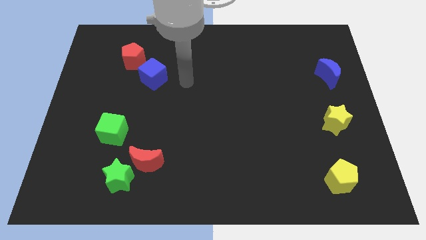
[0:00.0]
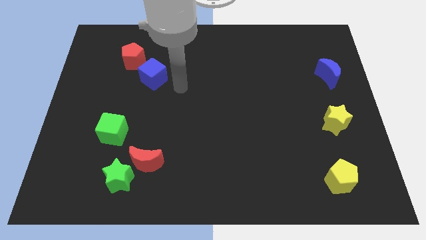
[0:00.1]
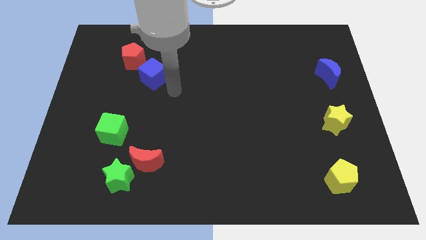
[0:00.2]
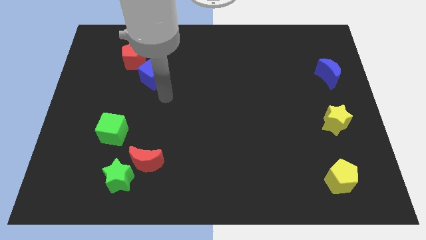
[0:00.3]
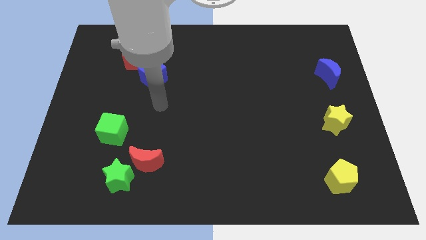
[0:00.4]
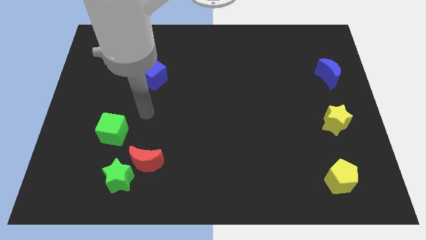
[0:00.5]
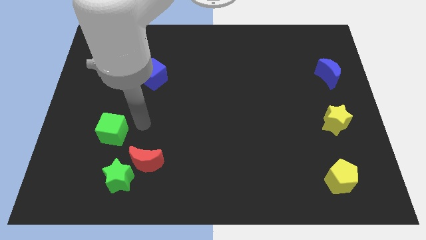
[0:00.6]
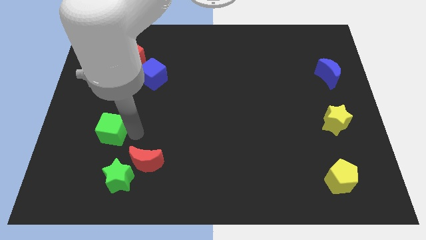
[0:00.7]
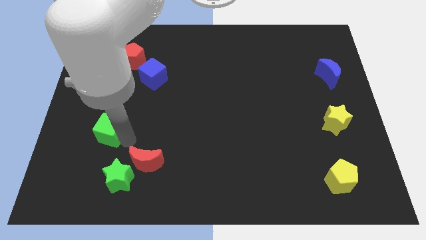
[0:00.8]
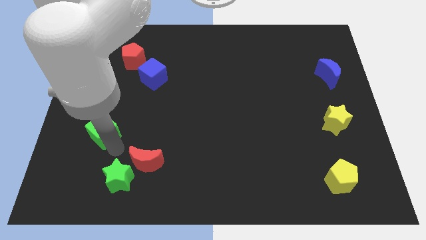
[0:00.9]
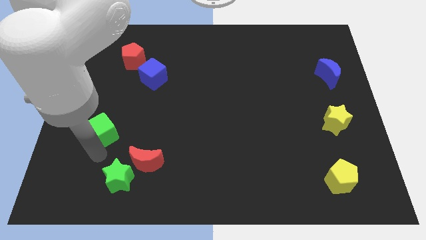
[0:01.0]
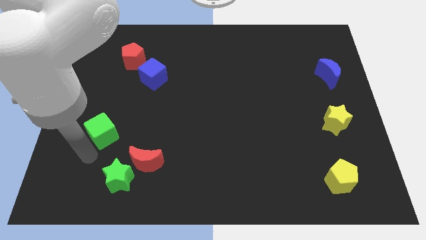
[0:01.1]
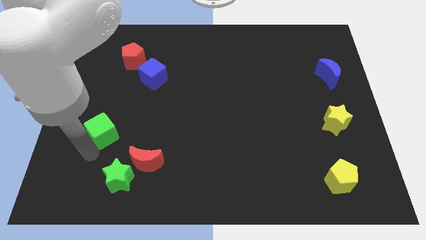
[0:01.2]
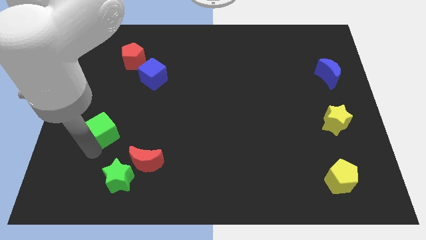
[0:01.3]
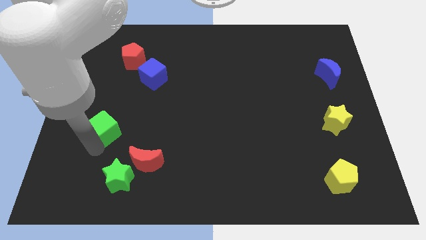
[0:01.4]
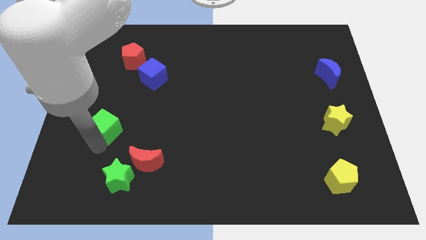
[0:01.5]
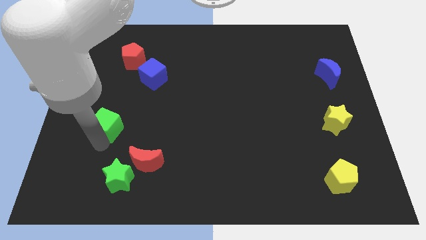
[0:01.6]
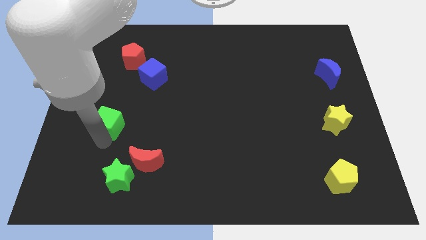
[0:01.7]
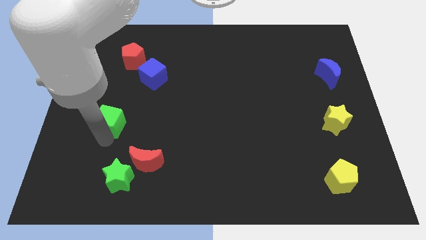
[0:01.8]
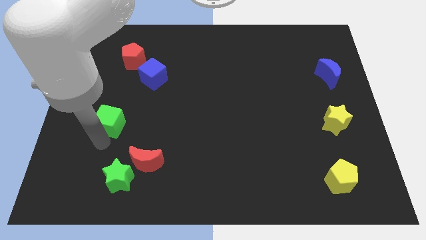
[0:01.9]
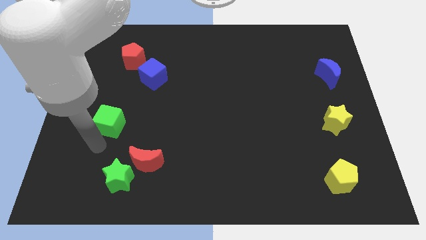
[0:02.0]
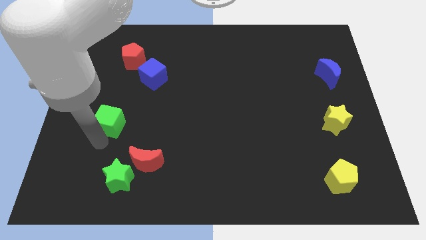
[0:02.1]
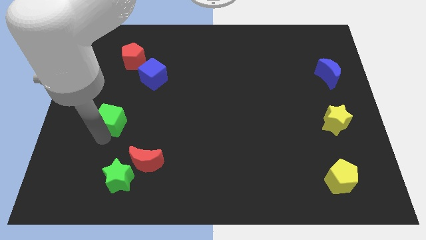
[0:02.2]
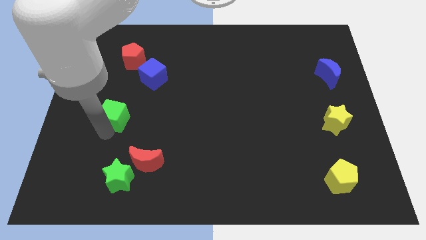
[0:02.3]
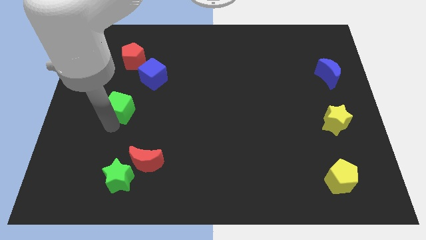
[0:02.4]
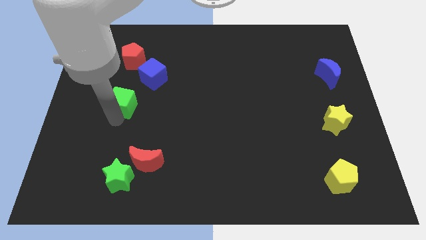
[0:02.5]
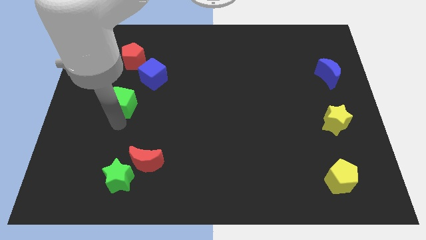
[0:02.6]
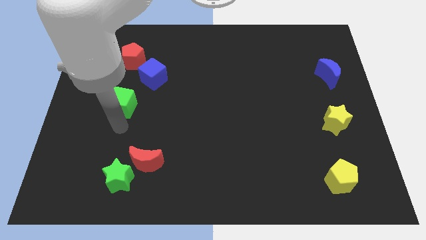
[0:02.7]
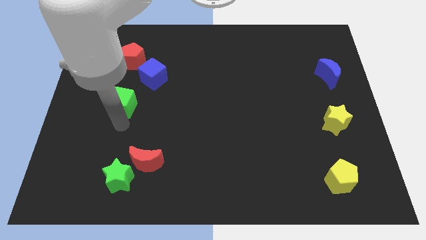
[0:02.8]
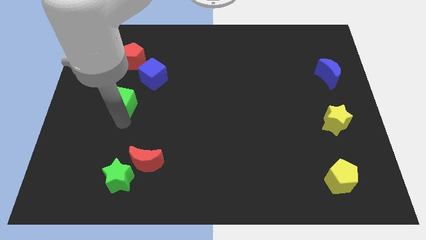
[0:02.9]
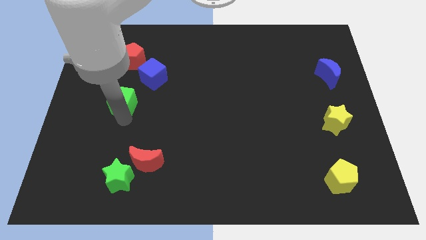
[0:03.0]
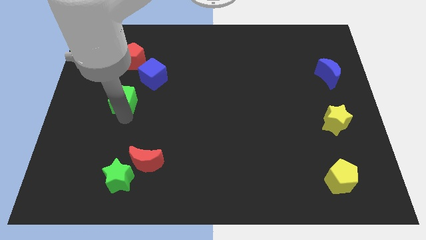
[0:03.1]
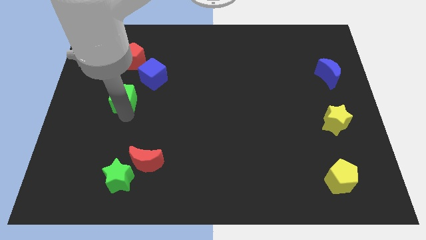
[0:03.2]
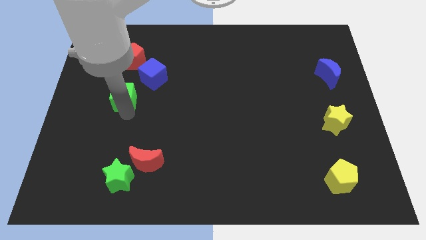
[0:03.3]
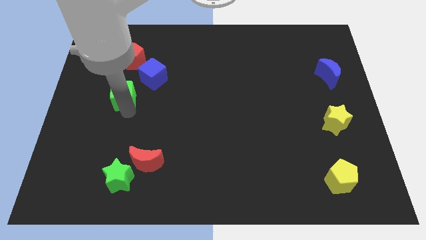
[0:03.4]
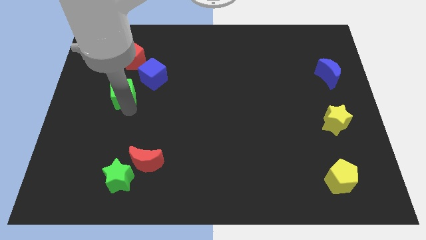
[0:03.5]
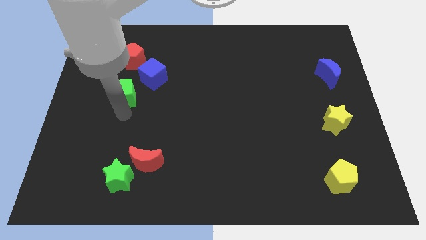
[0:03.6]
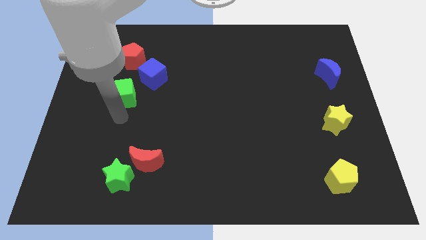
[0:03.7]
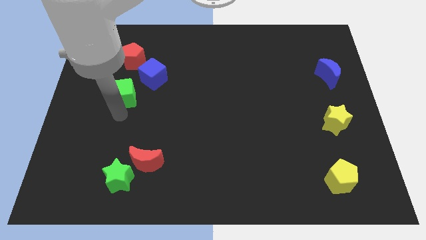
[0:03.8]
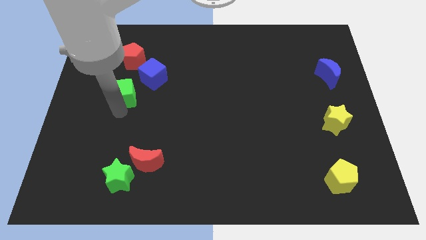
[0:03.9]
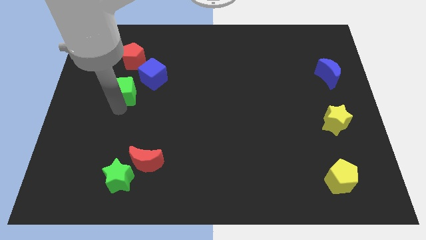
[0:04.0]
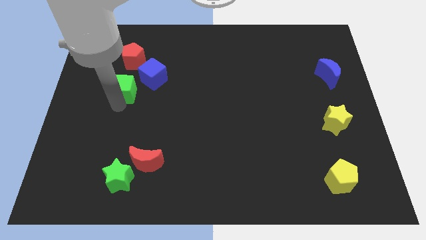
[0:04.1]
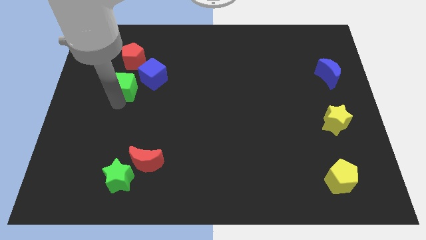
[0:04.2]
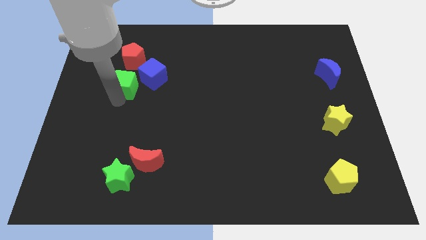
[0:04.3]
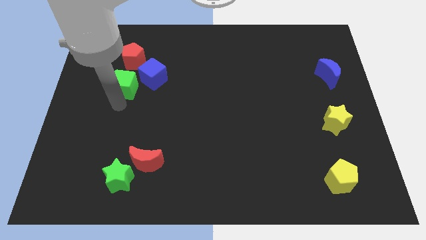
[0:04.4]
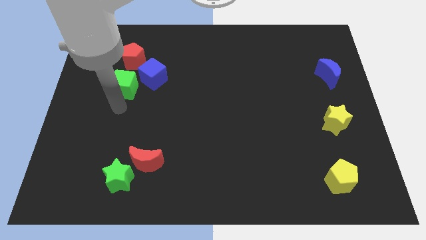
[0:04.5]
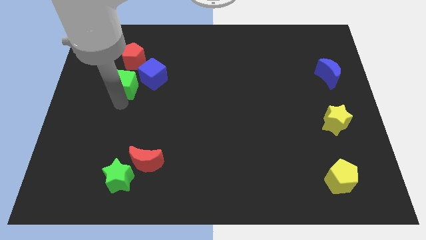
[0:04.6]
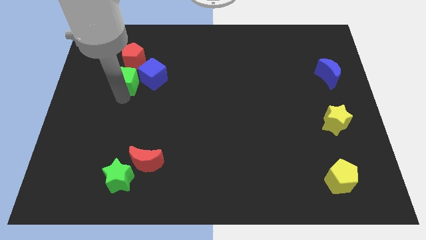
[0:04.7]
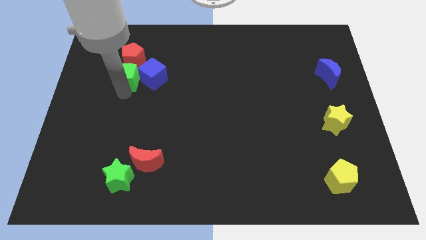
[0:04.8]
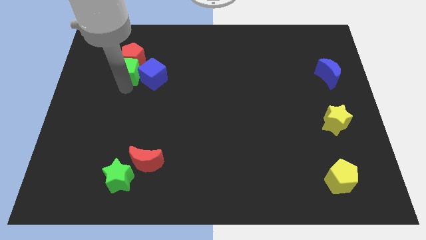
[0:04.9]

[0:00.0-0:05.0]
put the green cube close to the red pentagon

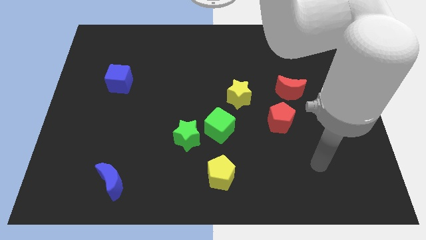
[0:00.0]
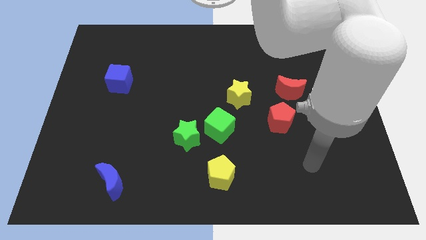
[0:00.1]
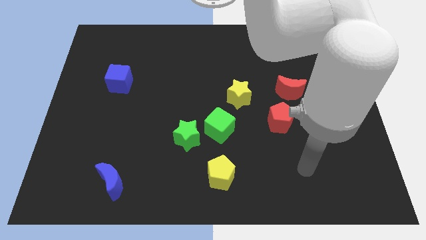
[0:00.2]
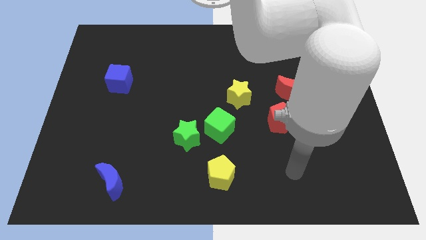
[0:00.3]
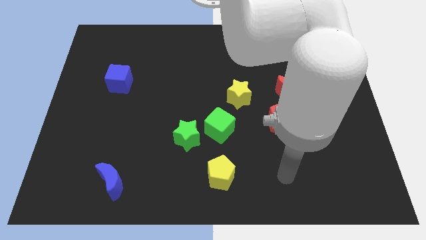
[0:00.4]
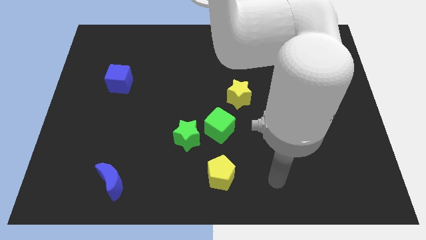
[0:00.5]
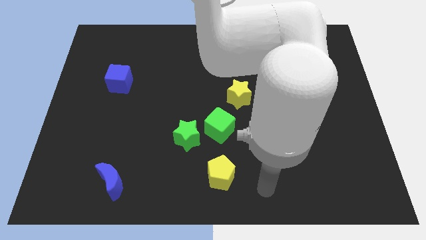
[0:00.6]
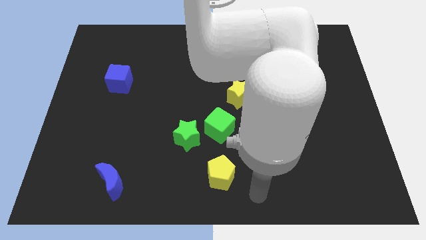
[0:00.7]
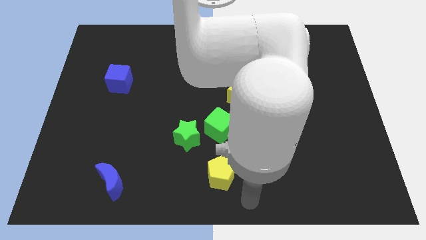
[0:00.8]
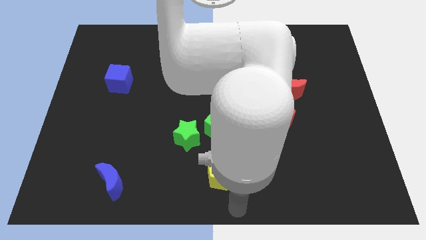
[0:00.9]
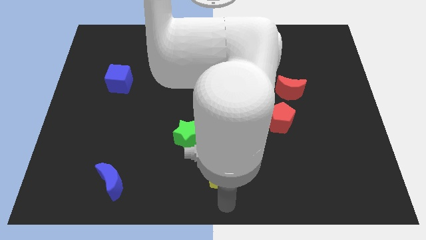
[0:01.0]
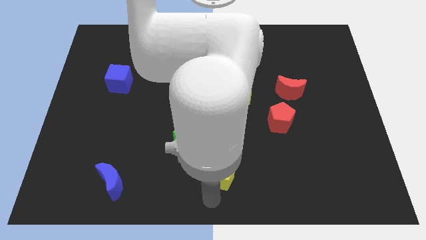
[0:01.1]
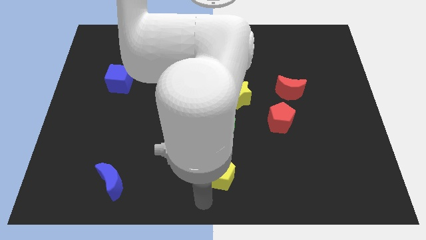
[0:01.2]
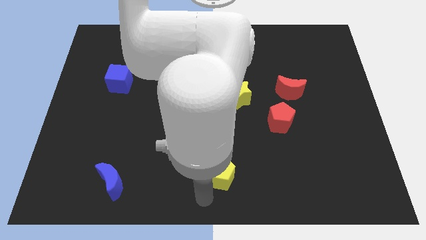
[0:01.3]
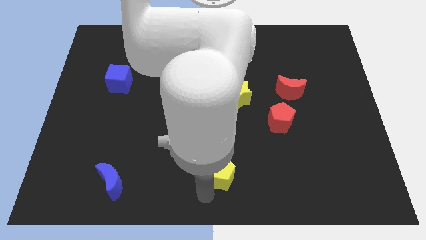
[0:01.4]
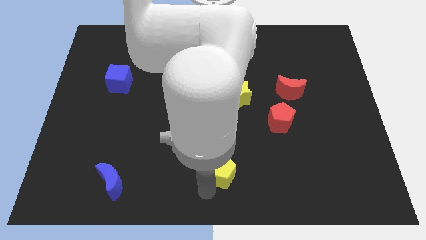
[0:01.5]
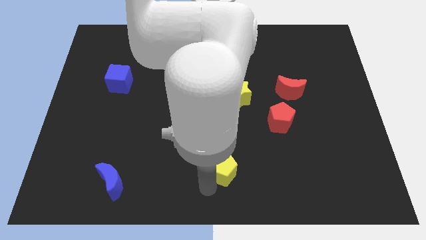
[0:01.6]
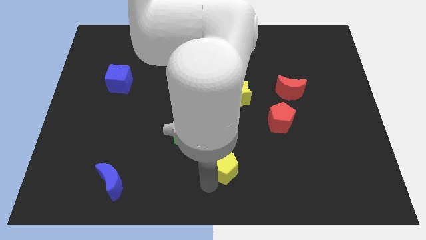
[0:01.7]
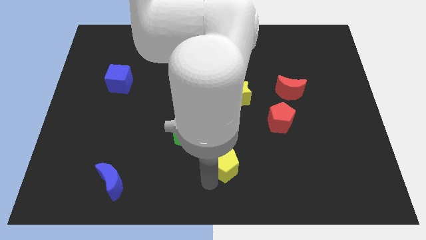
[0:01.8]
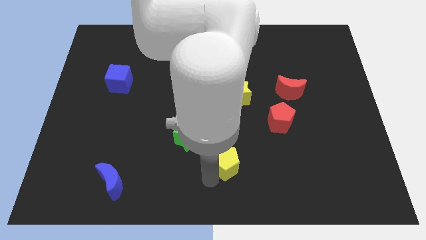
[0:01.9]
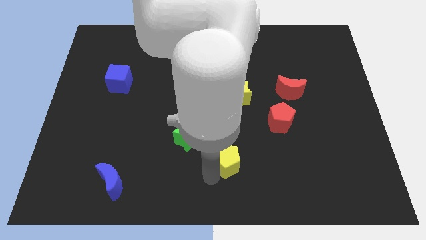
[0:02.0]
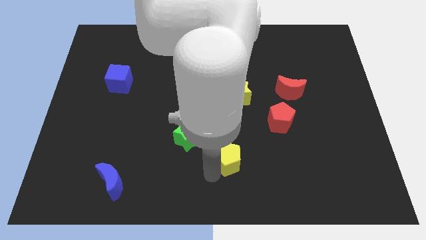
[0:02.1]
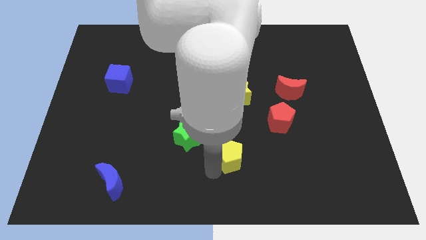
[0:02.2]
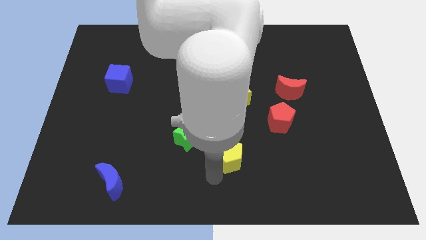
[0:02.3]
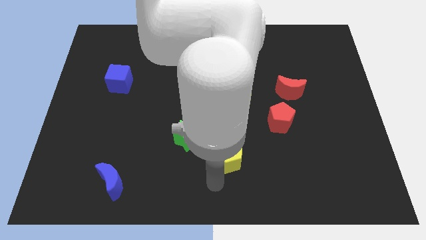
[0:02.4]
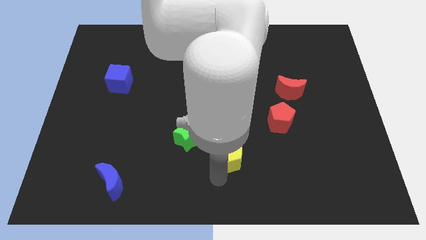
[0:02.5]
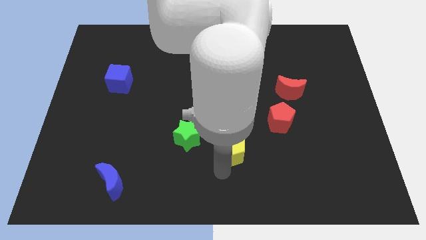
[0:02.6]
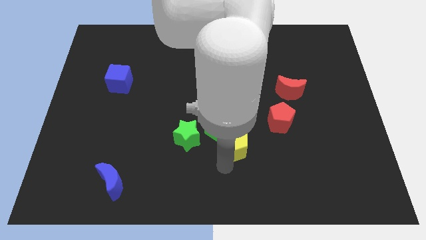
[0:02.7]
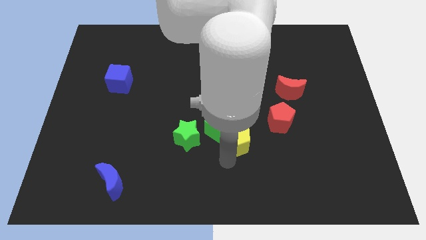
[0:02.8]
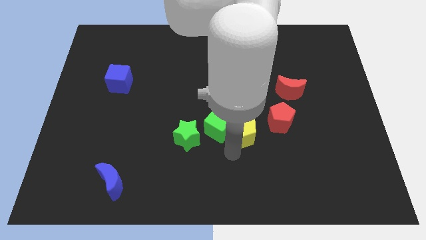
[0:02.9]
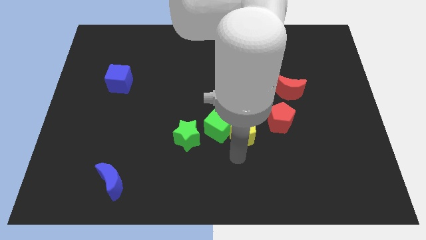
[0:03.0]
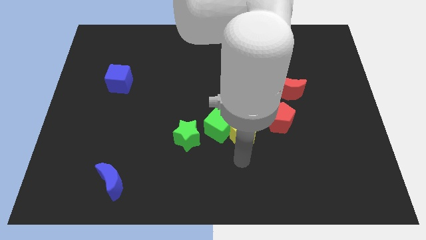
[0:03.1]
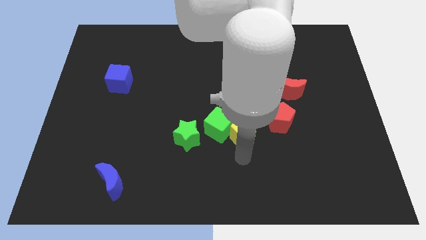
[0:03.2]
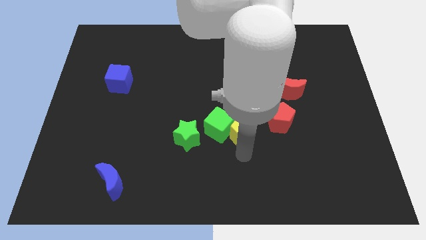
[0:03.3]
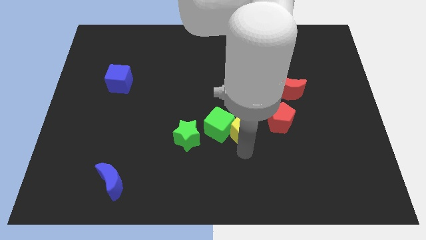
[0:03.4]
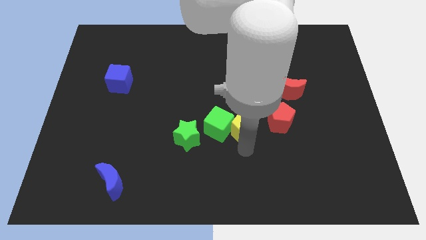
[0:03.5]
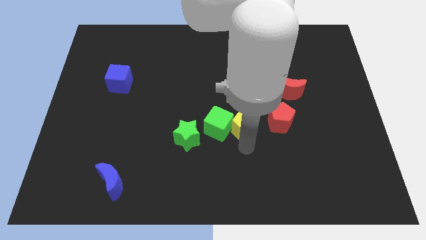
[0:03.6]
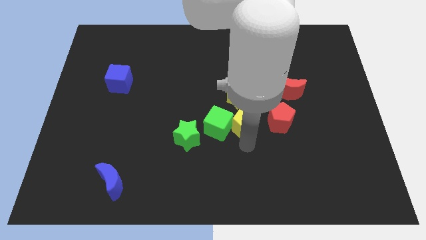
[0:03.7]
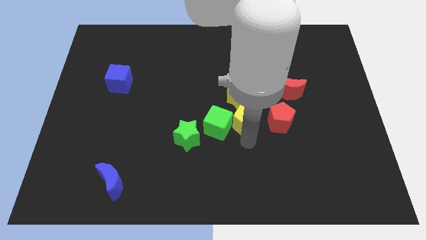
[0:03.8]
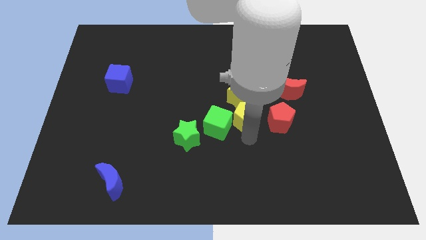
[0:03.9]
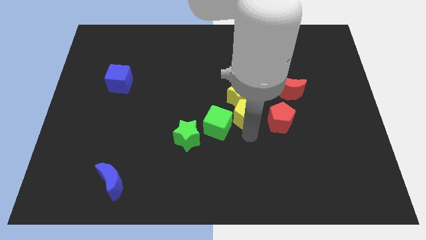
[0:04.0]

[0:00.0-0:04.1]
slide the yellow pentagon towards the yellow star
